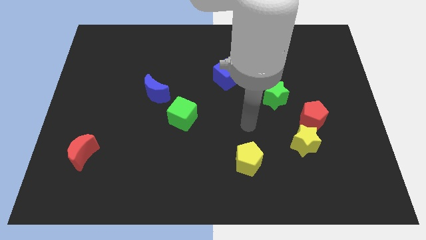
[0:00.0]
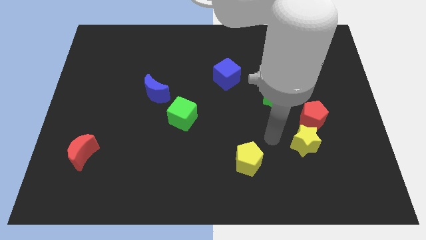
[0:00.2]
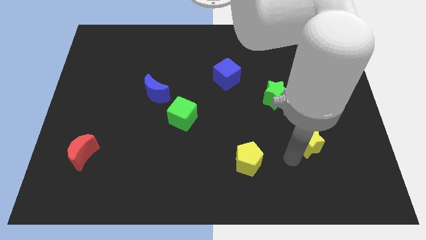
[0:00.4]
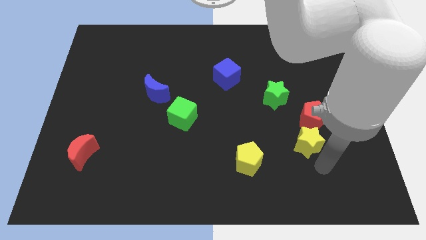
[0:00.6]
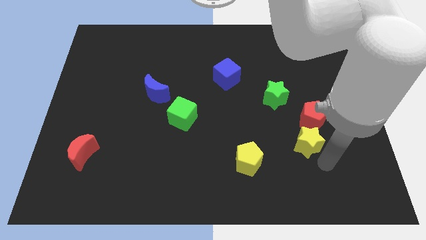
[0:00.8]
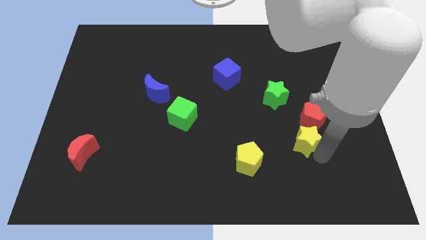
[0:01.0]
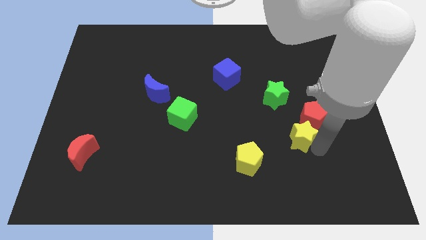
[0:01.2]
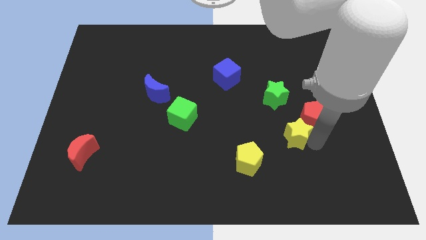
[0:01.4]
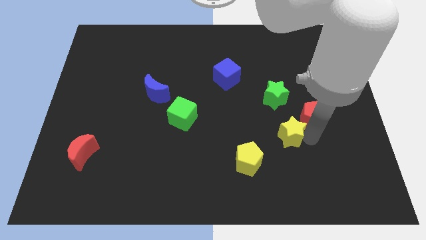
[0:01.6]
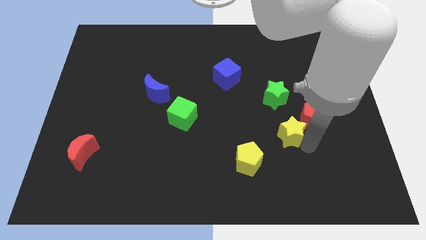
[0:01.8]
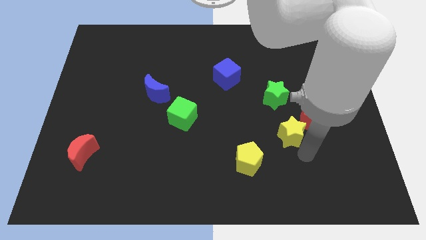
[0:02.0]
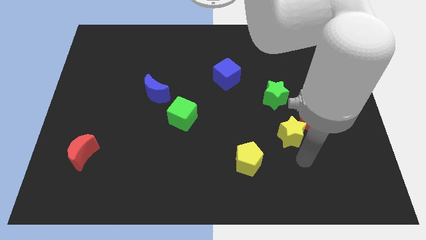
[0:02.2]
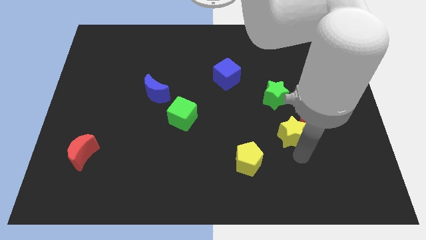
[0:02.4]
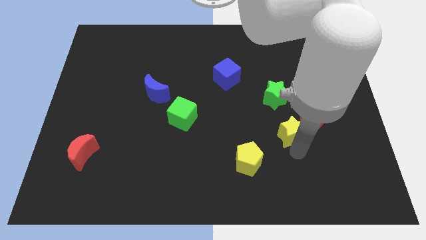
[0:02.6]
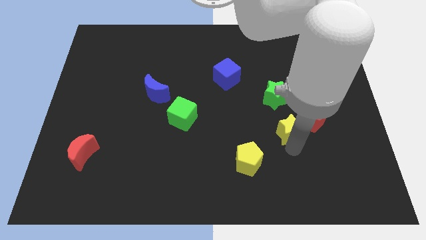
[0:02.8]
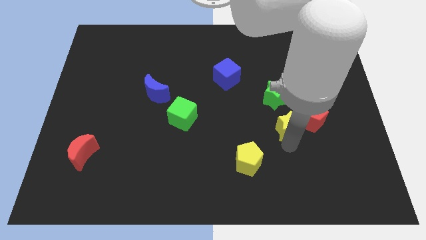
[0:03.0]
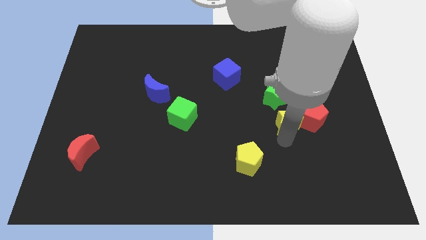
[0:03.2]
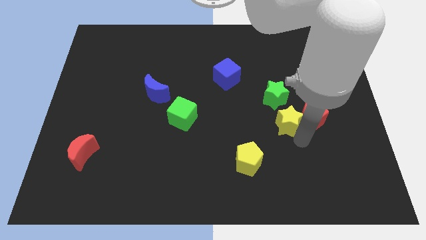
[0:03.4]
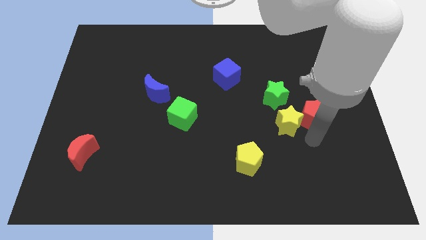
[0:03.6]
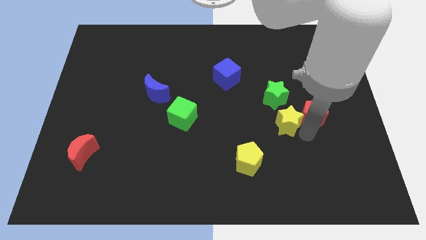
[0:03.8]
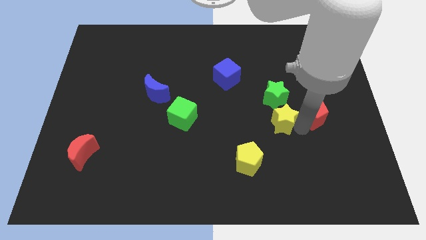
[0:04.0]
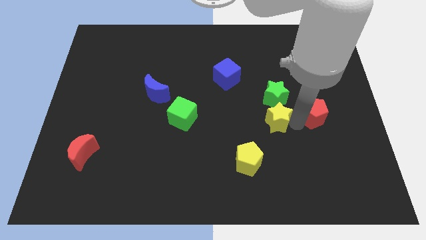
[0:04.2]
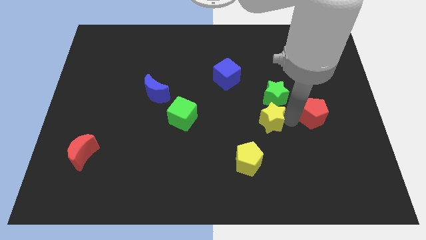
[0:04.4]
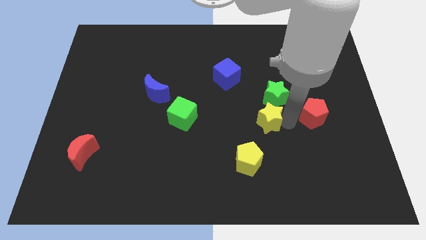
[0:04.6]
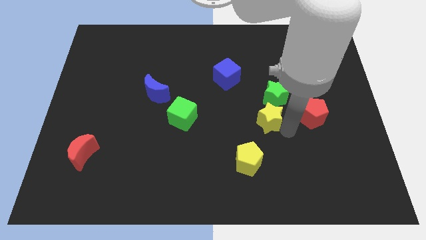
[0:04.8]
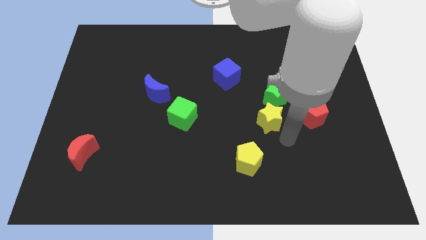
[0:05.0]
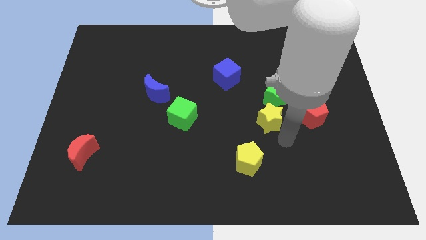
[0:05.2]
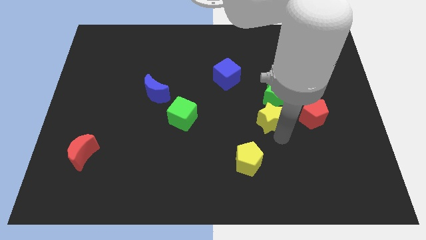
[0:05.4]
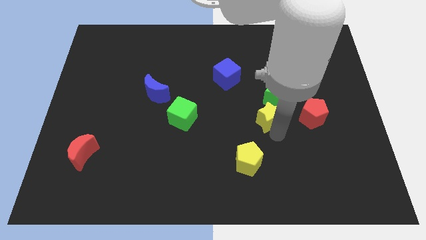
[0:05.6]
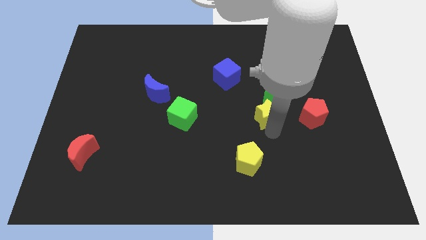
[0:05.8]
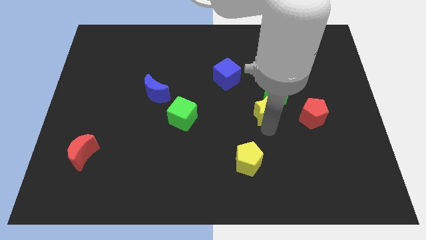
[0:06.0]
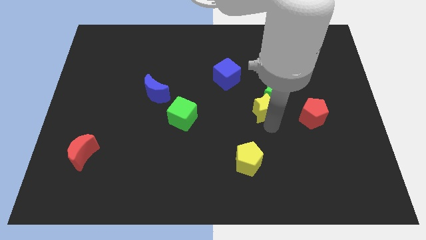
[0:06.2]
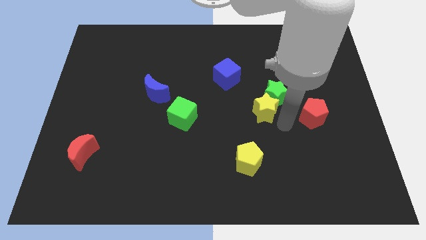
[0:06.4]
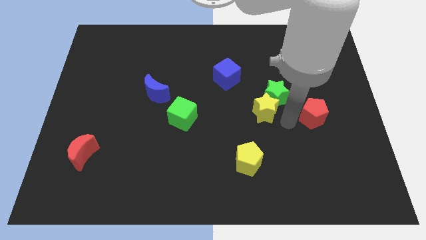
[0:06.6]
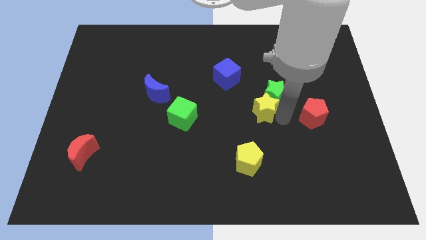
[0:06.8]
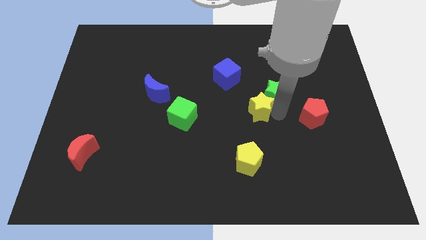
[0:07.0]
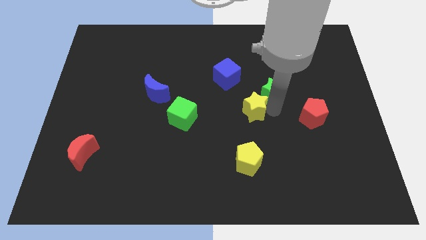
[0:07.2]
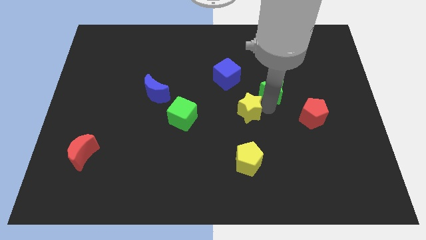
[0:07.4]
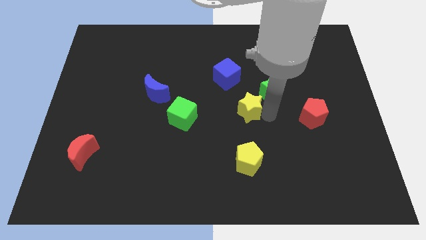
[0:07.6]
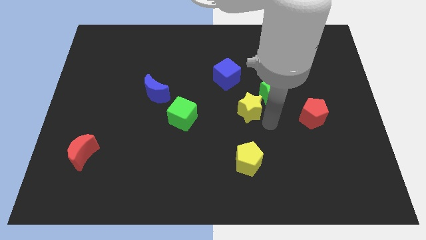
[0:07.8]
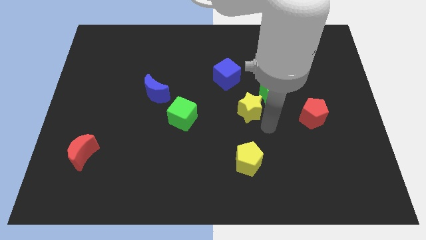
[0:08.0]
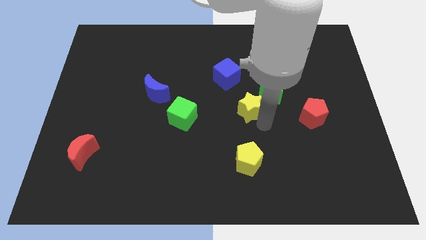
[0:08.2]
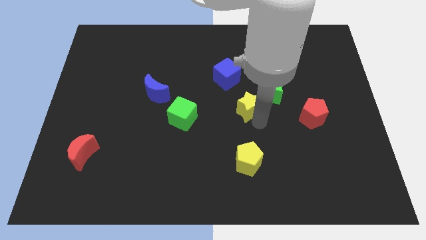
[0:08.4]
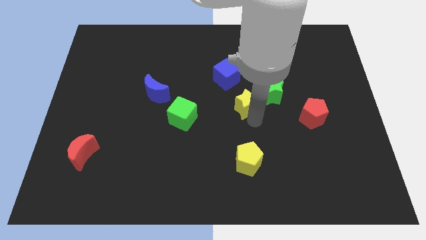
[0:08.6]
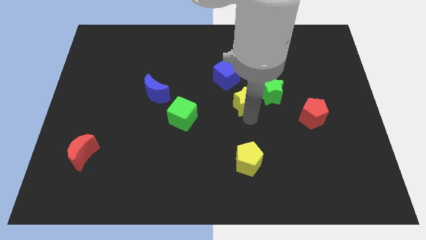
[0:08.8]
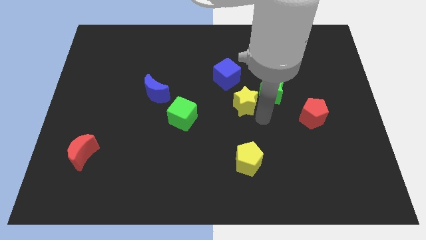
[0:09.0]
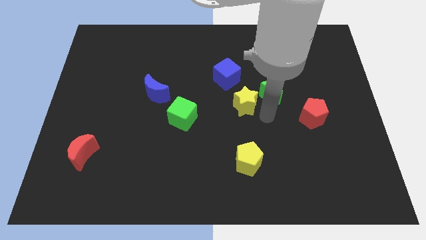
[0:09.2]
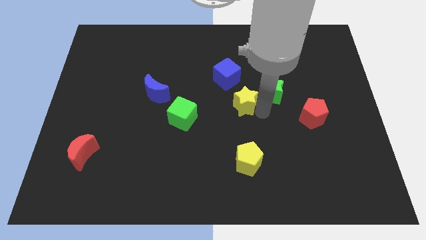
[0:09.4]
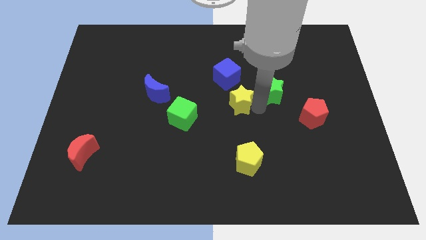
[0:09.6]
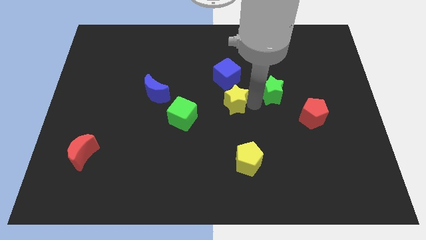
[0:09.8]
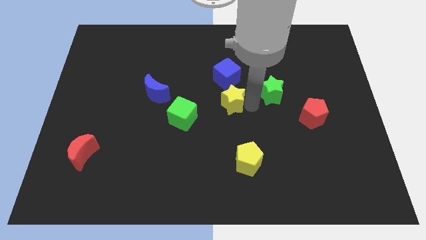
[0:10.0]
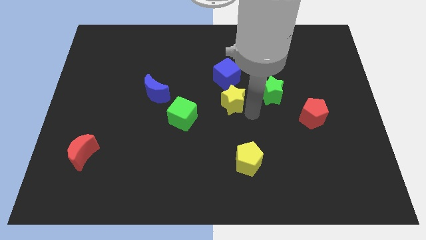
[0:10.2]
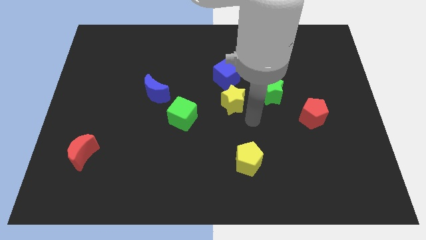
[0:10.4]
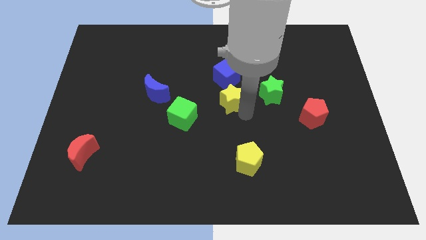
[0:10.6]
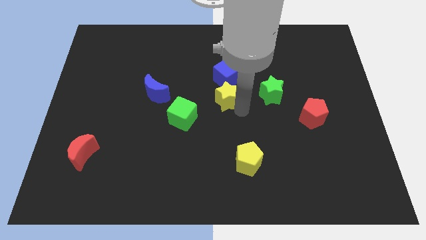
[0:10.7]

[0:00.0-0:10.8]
move the yellow star up and then to the left

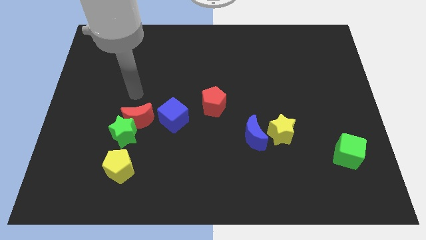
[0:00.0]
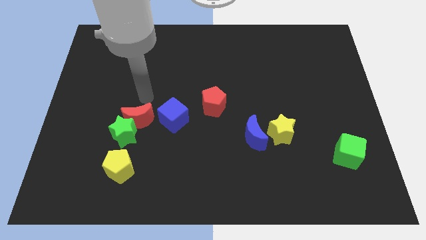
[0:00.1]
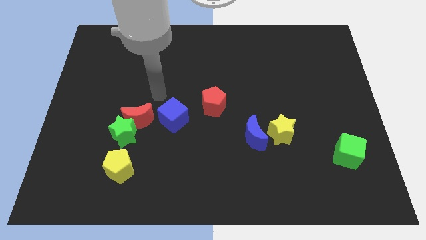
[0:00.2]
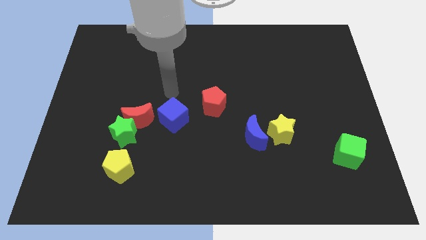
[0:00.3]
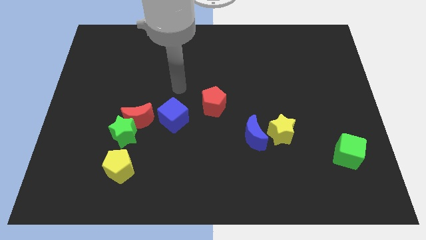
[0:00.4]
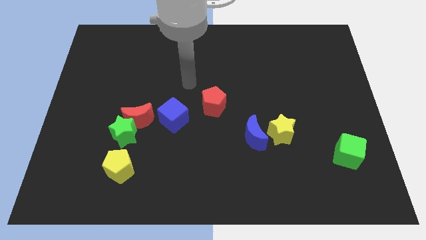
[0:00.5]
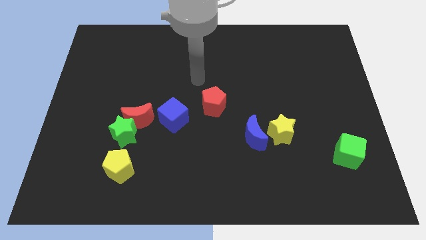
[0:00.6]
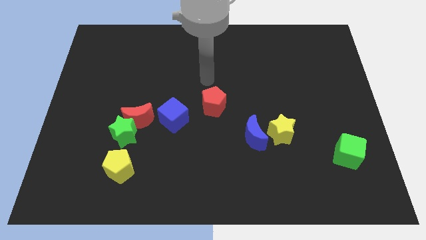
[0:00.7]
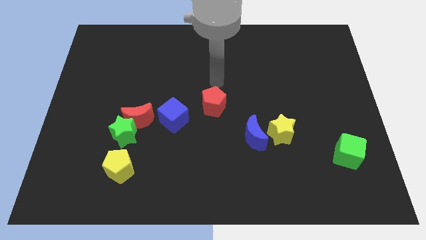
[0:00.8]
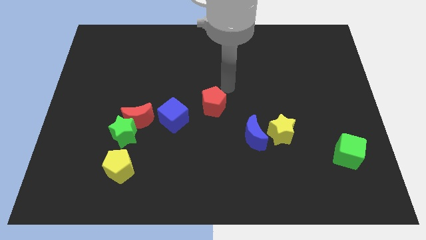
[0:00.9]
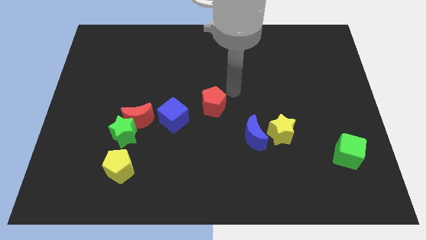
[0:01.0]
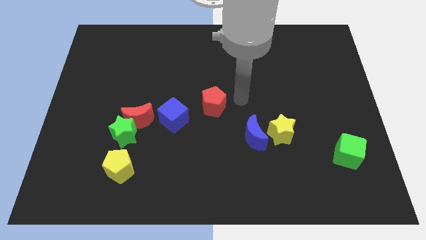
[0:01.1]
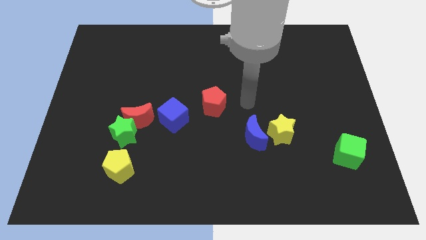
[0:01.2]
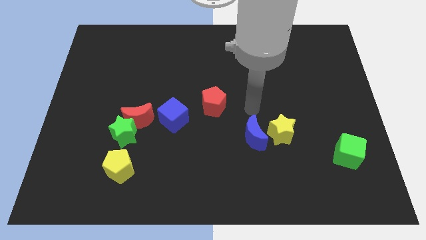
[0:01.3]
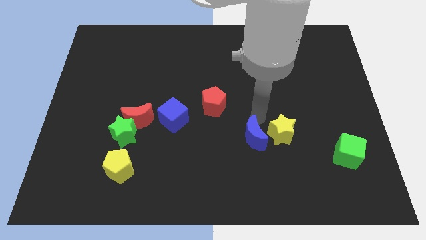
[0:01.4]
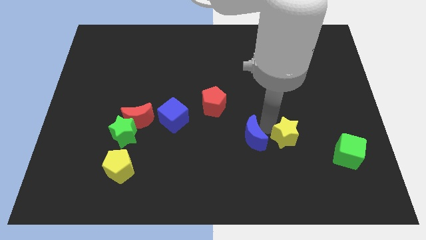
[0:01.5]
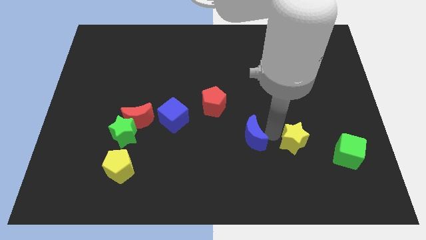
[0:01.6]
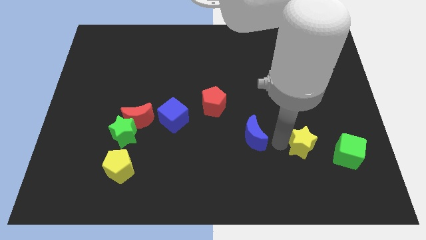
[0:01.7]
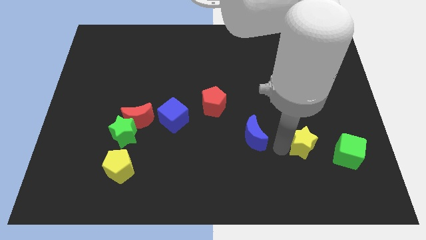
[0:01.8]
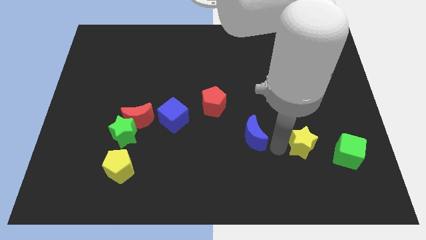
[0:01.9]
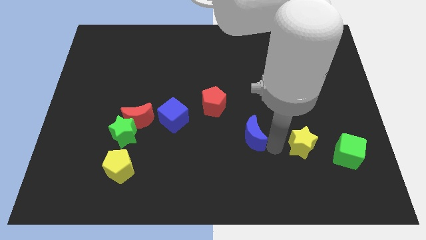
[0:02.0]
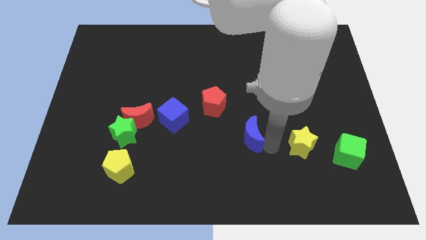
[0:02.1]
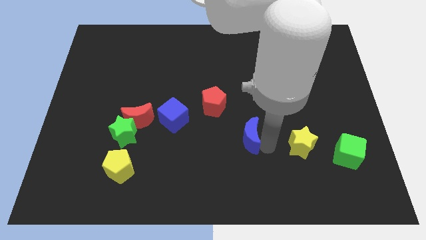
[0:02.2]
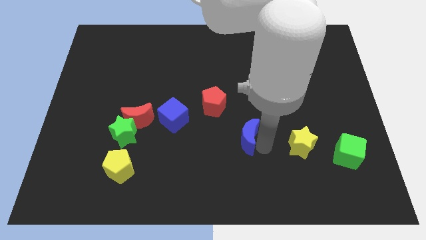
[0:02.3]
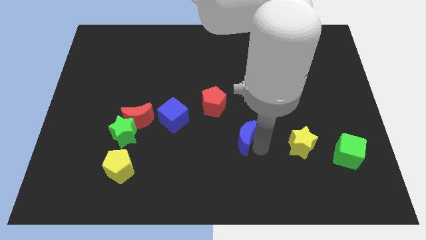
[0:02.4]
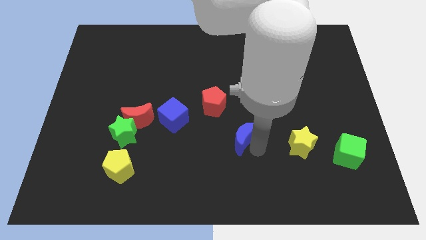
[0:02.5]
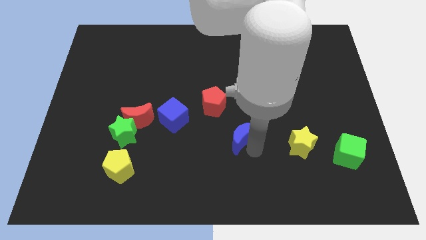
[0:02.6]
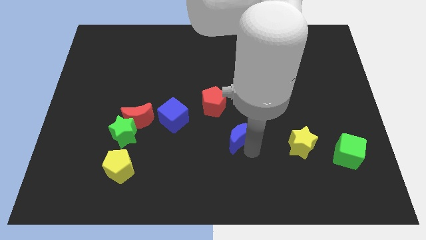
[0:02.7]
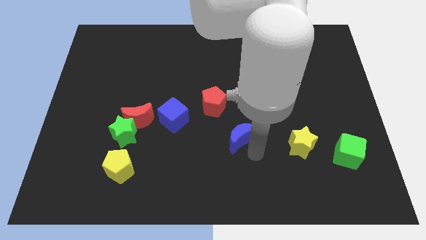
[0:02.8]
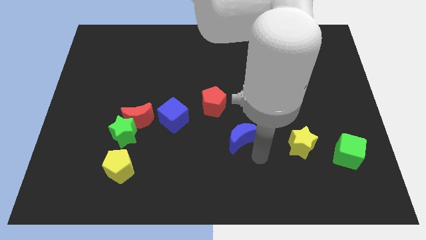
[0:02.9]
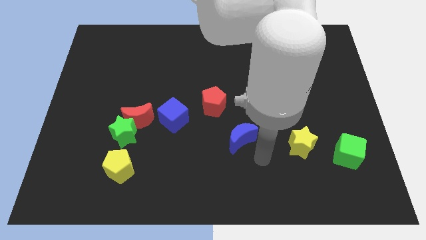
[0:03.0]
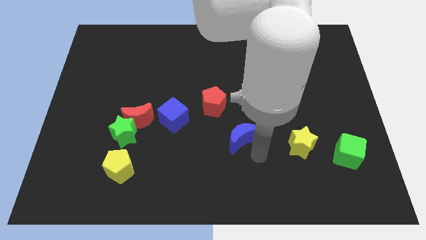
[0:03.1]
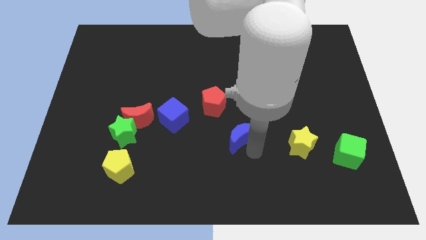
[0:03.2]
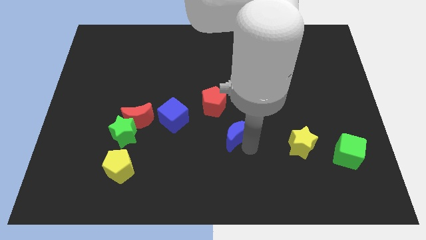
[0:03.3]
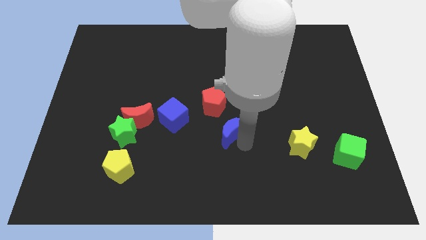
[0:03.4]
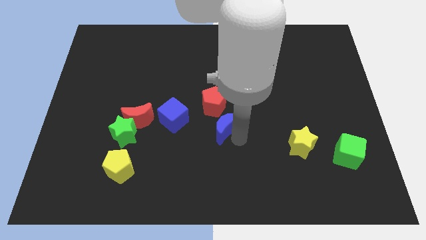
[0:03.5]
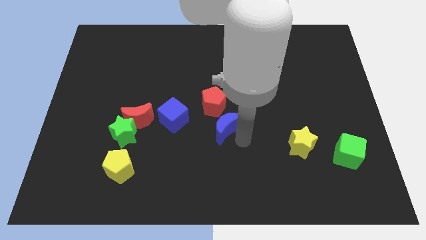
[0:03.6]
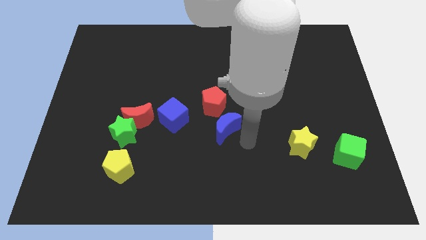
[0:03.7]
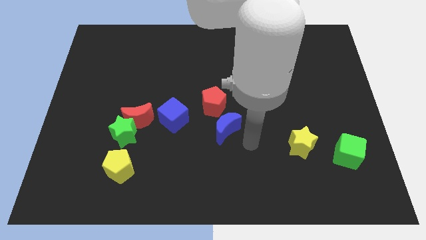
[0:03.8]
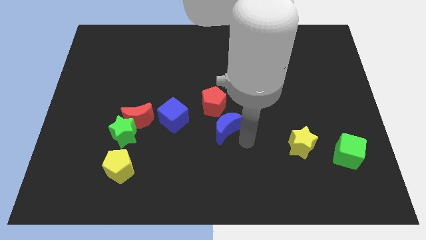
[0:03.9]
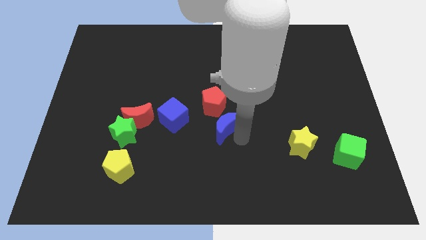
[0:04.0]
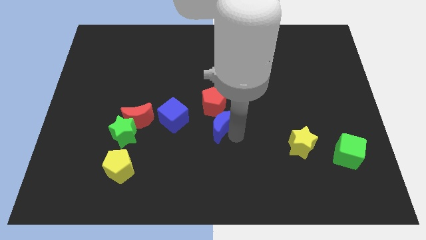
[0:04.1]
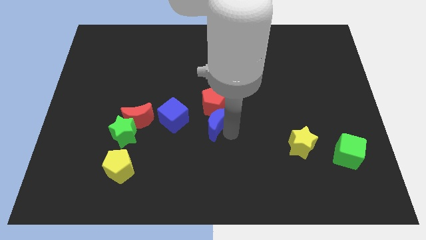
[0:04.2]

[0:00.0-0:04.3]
slide the blue moon a little up and left
